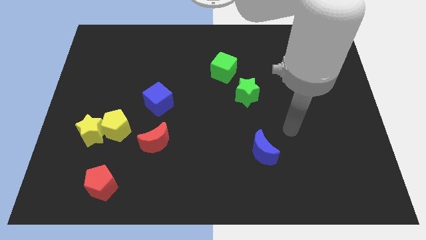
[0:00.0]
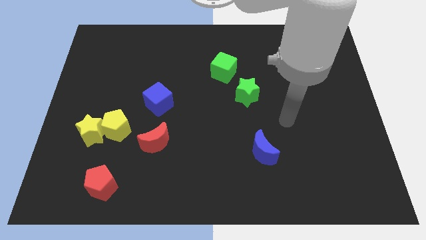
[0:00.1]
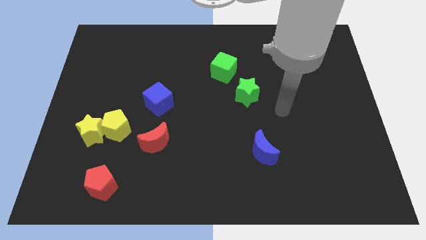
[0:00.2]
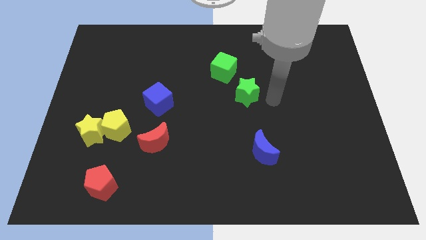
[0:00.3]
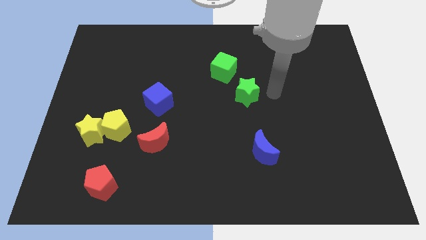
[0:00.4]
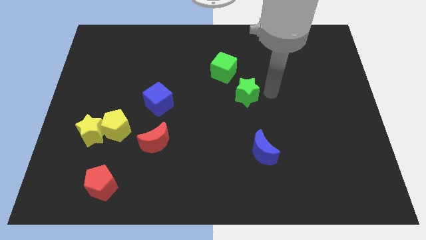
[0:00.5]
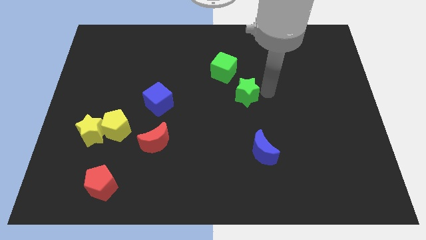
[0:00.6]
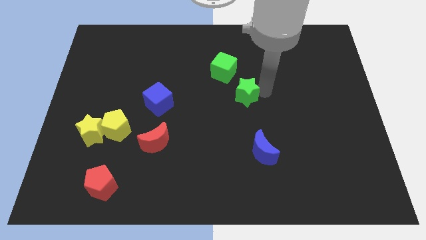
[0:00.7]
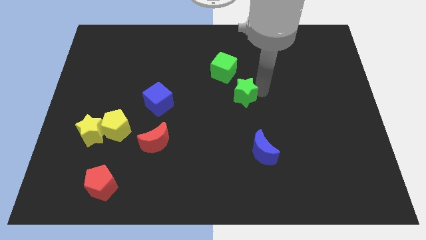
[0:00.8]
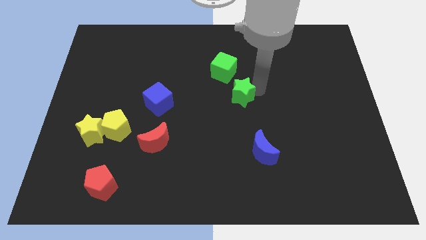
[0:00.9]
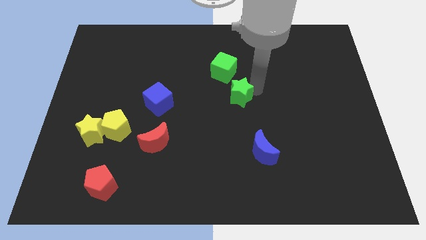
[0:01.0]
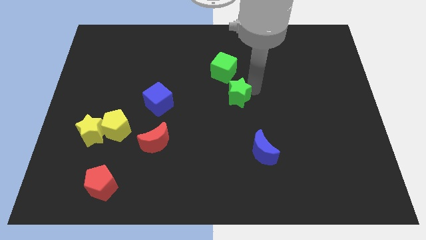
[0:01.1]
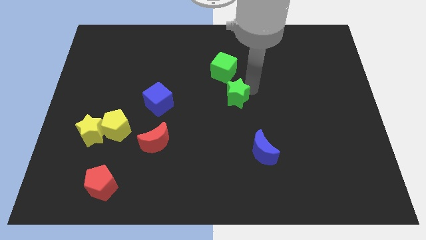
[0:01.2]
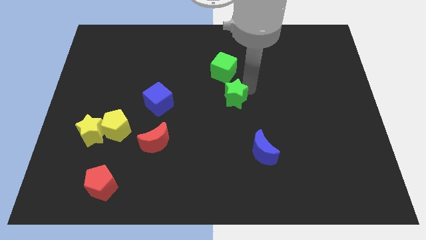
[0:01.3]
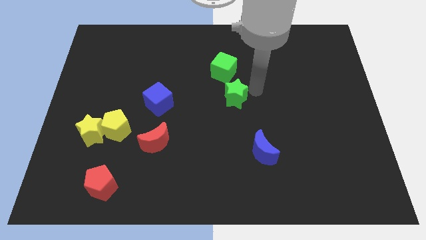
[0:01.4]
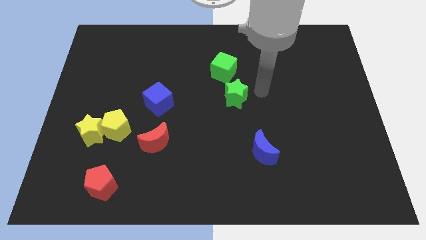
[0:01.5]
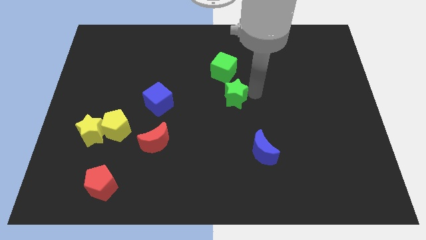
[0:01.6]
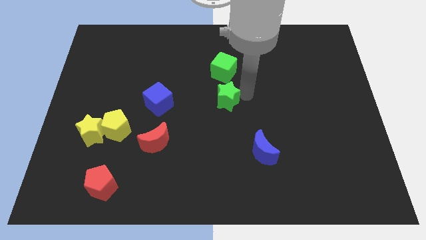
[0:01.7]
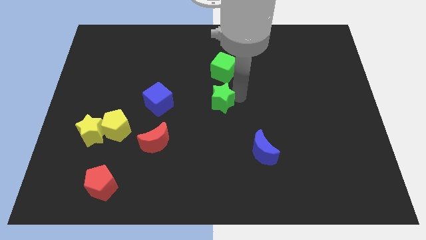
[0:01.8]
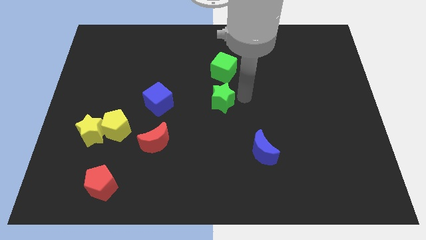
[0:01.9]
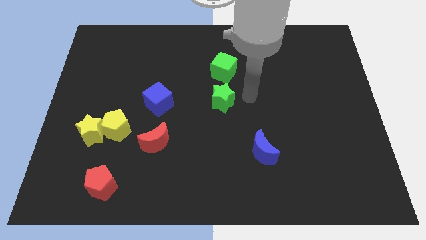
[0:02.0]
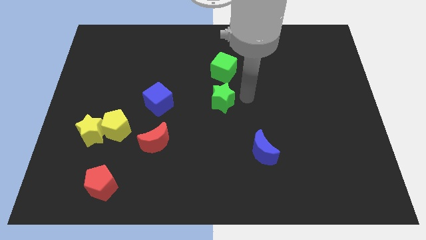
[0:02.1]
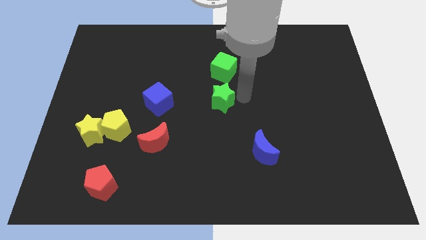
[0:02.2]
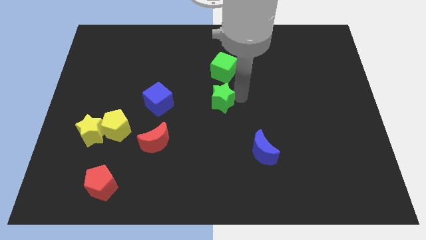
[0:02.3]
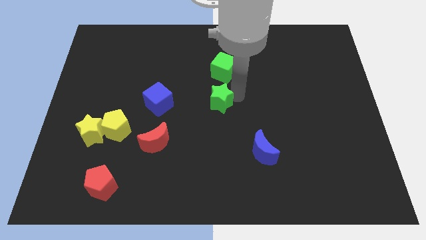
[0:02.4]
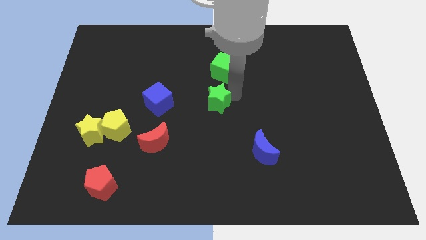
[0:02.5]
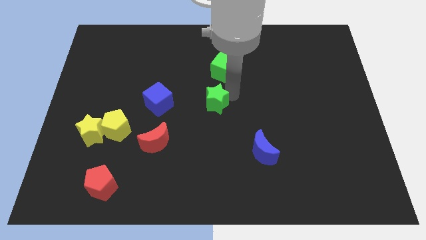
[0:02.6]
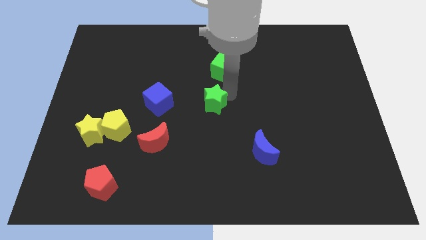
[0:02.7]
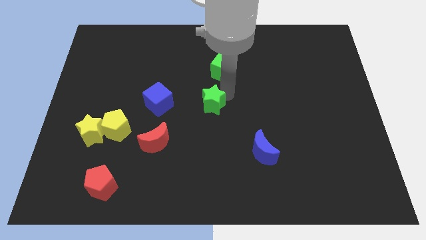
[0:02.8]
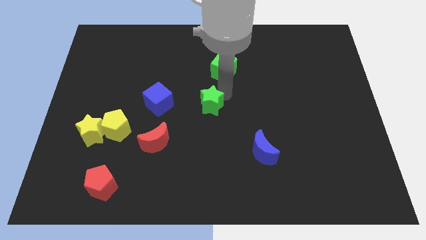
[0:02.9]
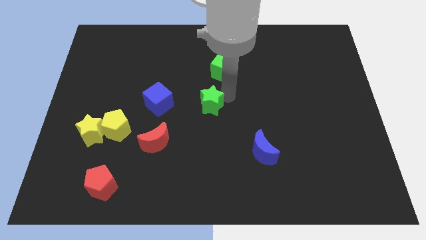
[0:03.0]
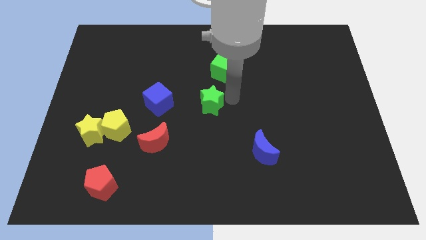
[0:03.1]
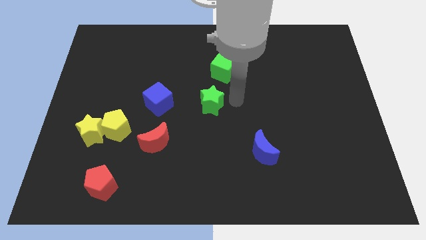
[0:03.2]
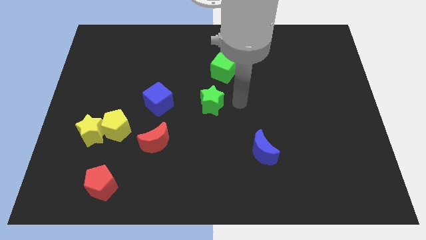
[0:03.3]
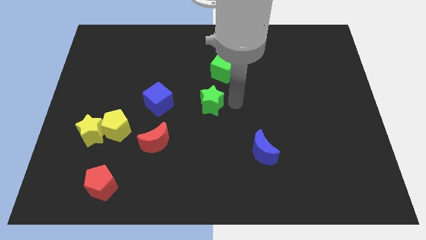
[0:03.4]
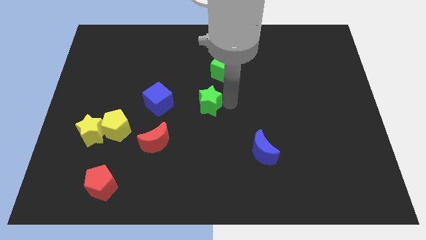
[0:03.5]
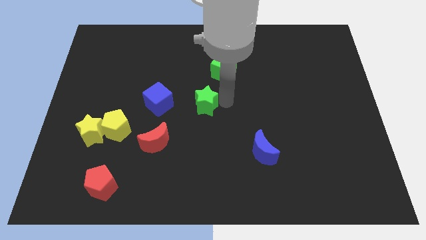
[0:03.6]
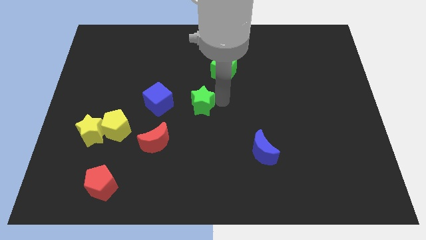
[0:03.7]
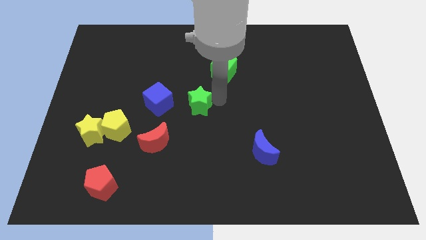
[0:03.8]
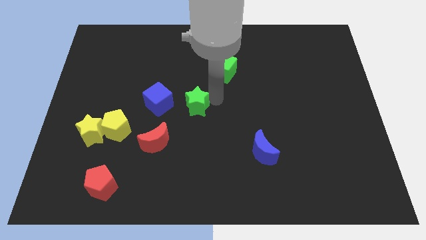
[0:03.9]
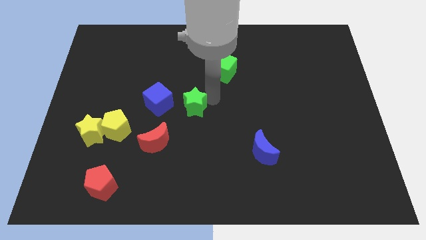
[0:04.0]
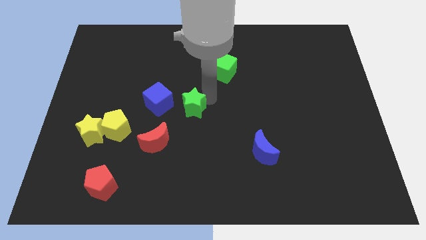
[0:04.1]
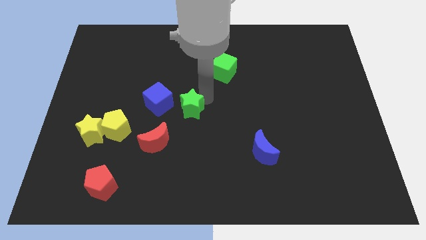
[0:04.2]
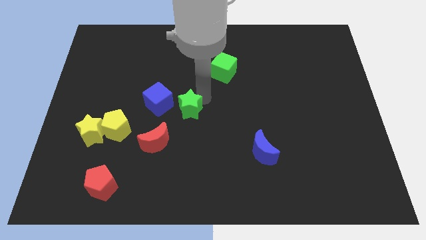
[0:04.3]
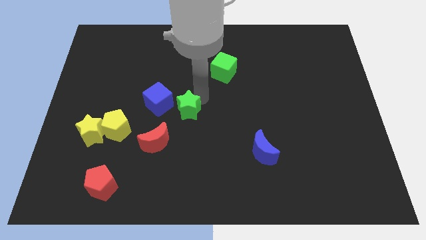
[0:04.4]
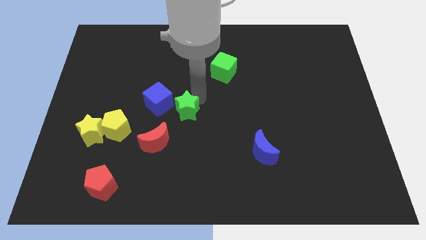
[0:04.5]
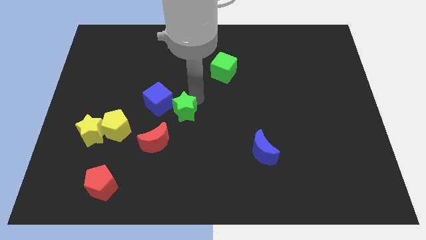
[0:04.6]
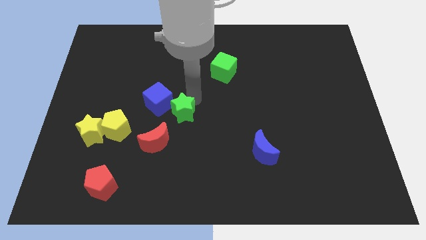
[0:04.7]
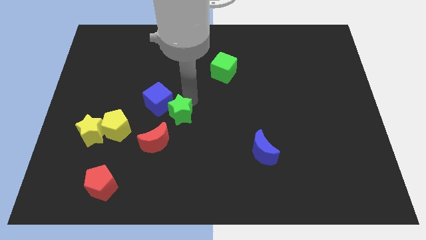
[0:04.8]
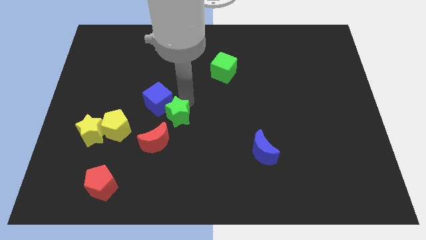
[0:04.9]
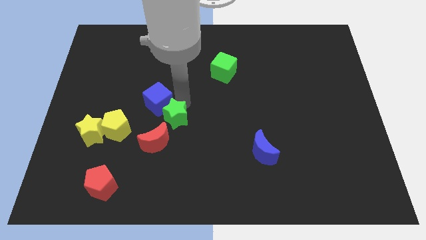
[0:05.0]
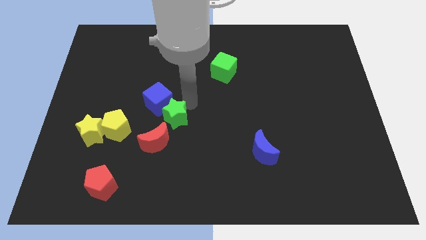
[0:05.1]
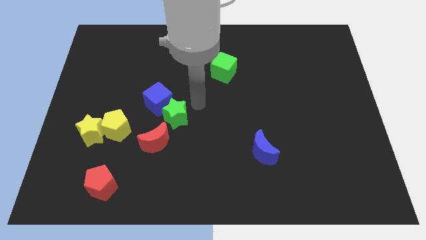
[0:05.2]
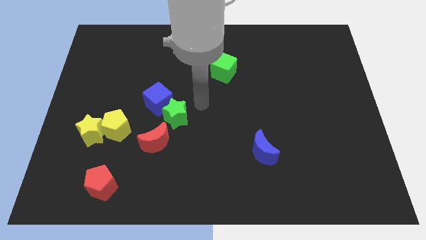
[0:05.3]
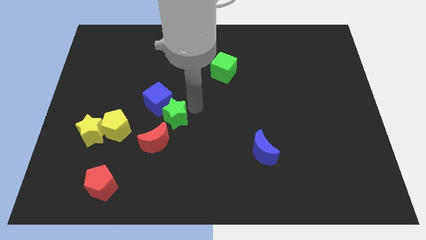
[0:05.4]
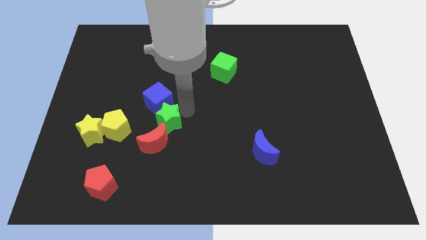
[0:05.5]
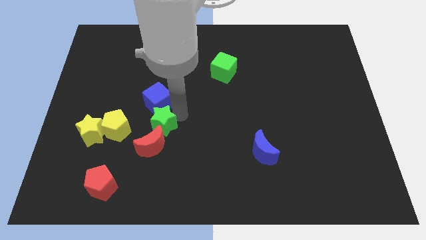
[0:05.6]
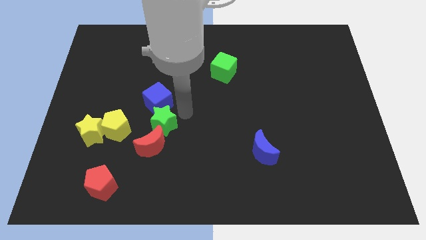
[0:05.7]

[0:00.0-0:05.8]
put the green star just right of the yellow star

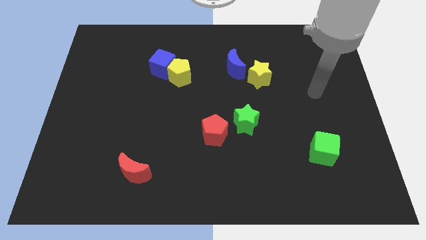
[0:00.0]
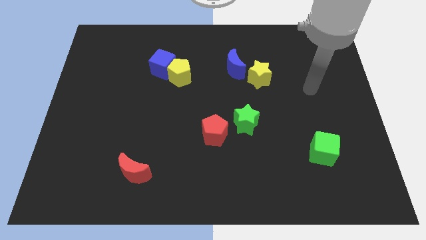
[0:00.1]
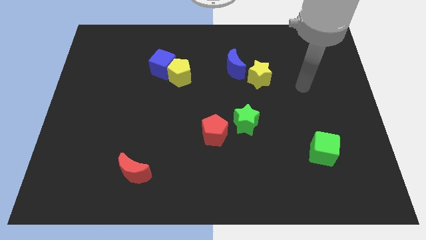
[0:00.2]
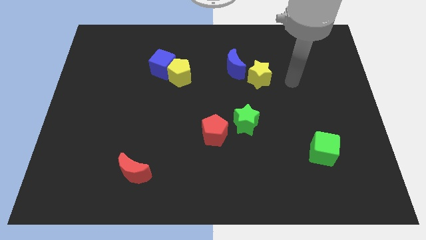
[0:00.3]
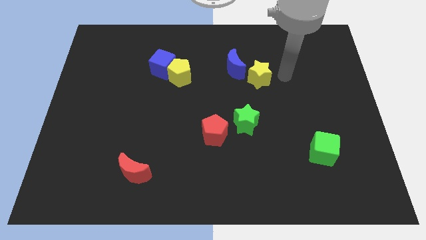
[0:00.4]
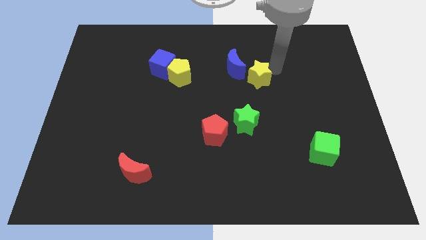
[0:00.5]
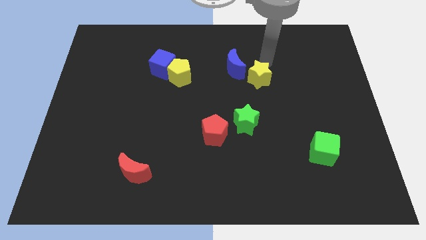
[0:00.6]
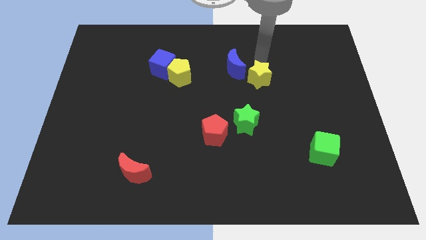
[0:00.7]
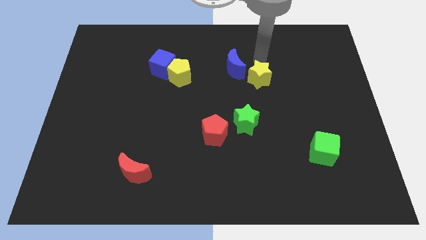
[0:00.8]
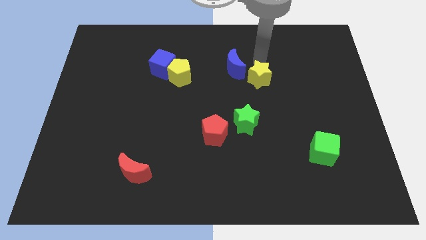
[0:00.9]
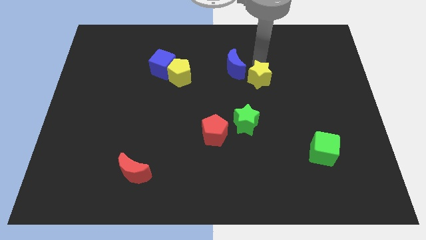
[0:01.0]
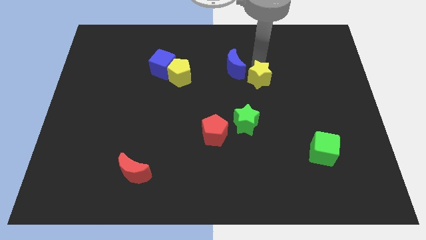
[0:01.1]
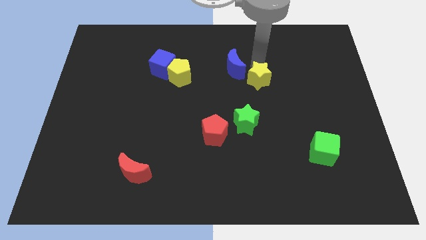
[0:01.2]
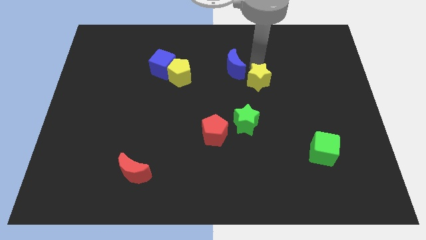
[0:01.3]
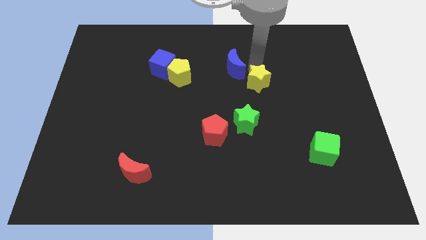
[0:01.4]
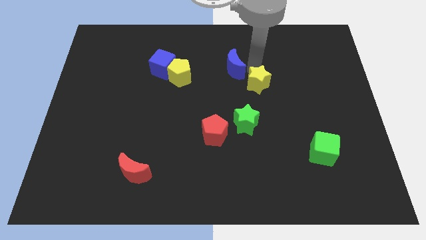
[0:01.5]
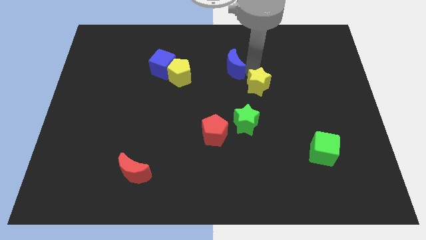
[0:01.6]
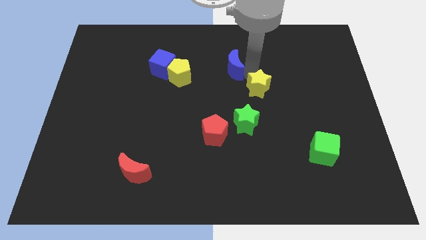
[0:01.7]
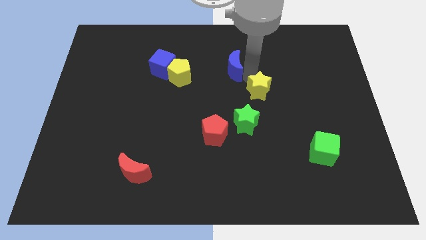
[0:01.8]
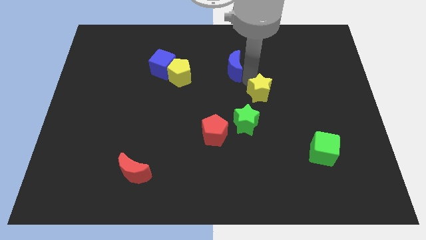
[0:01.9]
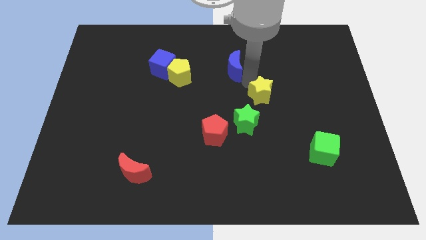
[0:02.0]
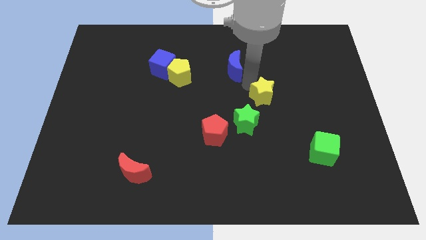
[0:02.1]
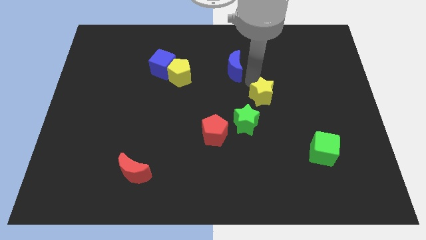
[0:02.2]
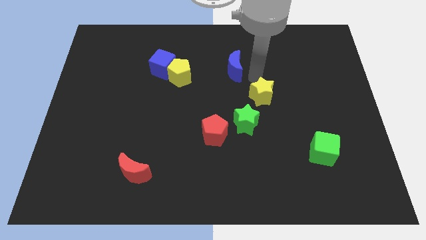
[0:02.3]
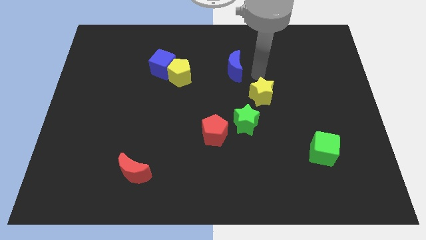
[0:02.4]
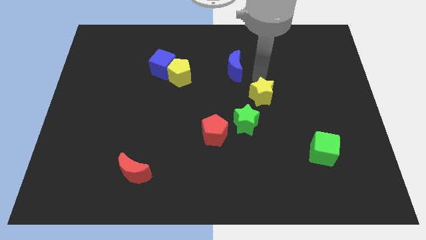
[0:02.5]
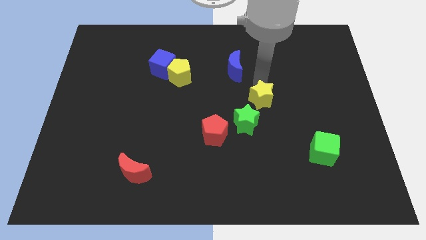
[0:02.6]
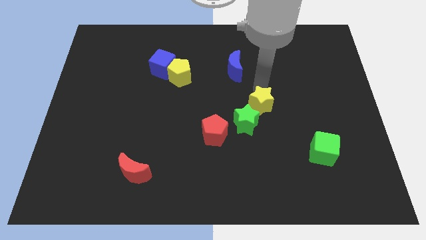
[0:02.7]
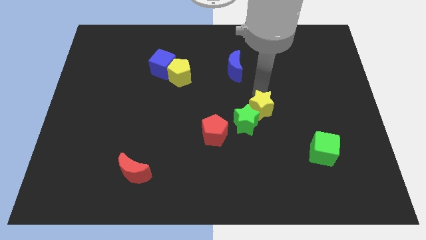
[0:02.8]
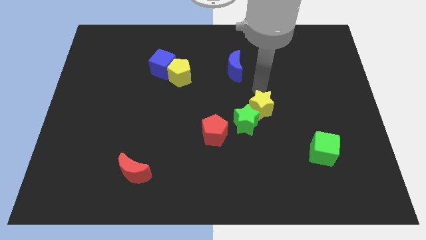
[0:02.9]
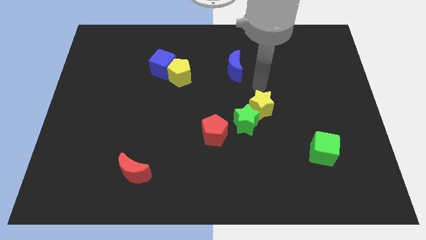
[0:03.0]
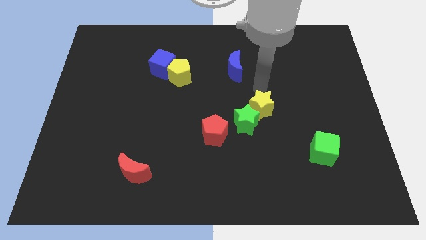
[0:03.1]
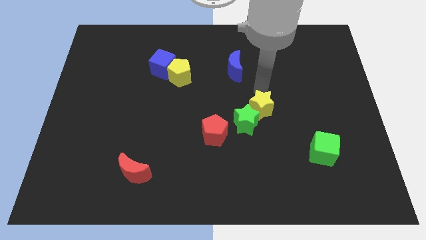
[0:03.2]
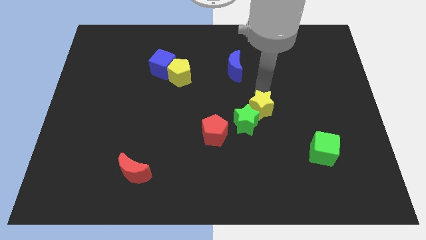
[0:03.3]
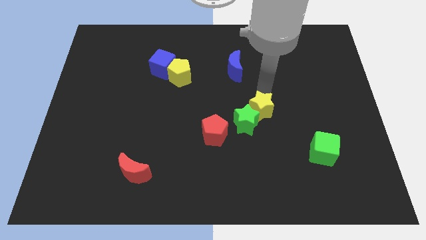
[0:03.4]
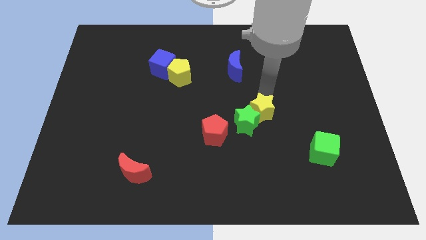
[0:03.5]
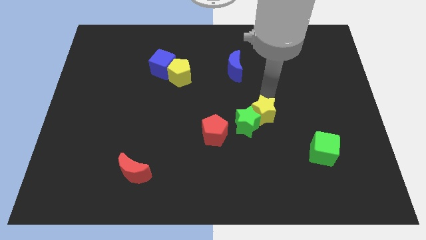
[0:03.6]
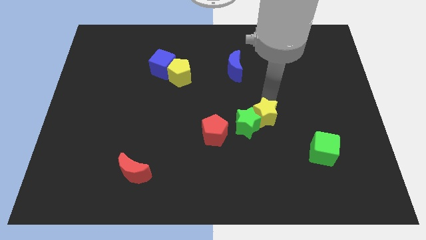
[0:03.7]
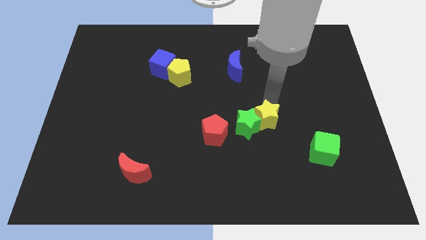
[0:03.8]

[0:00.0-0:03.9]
slide the yellow star just right of the red pentagon
